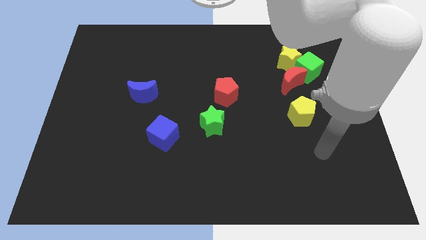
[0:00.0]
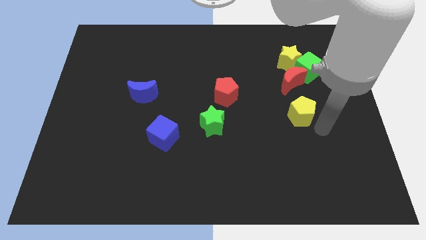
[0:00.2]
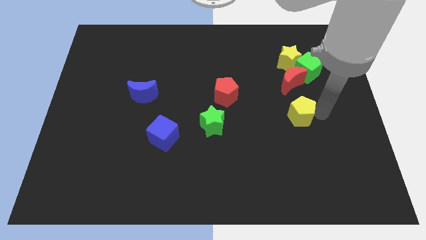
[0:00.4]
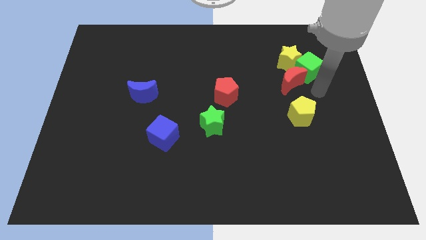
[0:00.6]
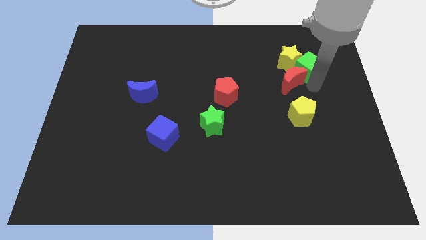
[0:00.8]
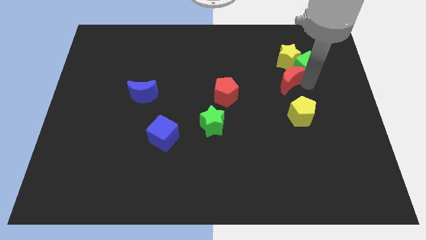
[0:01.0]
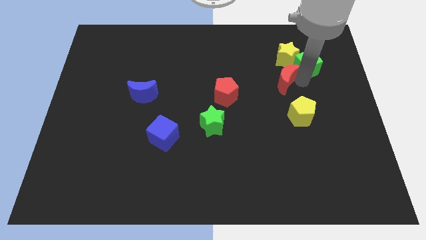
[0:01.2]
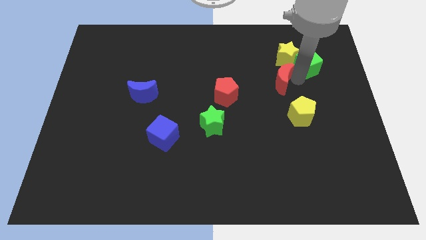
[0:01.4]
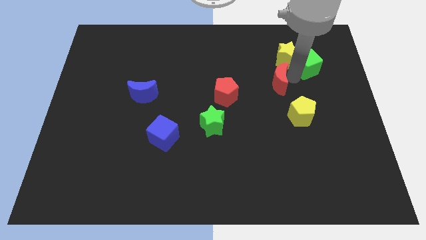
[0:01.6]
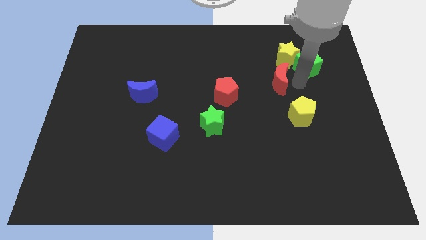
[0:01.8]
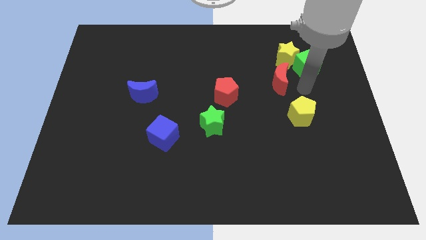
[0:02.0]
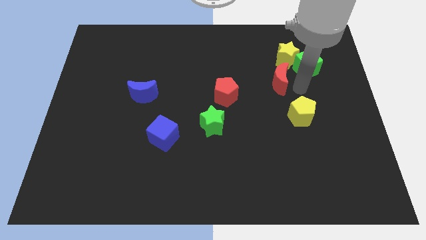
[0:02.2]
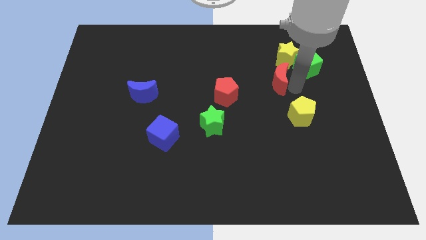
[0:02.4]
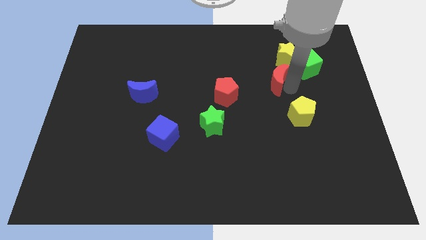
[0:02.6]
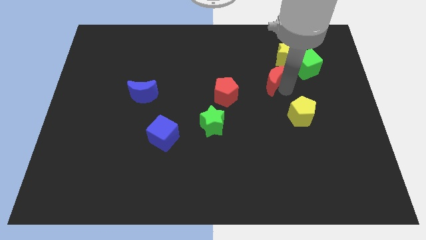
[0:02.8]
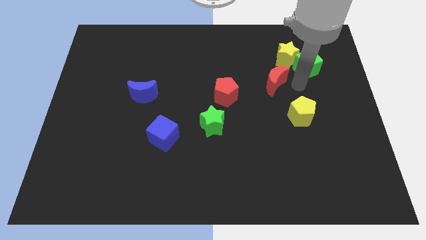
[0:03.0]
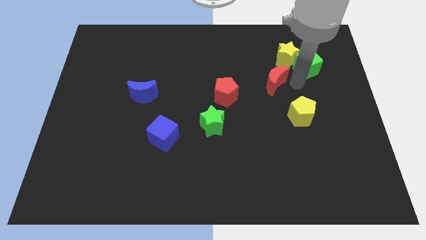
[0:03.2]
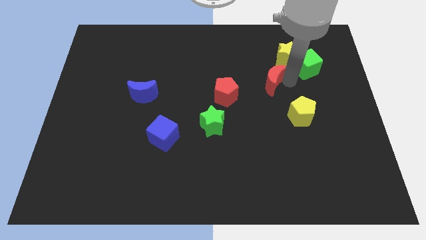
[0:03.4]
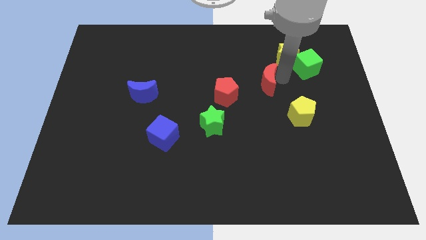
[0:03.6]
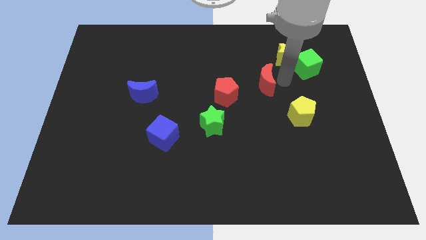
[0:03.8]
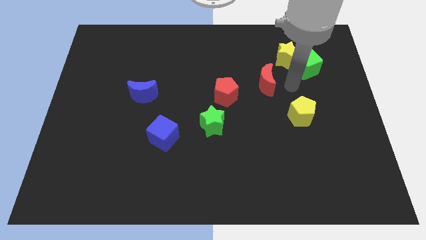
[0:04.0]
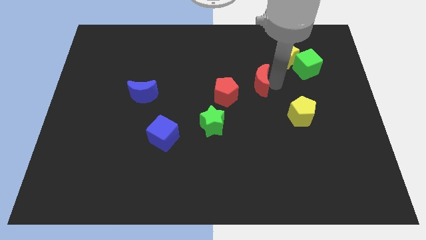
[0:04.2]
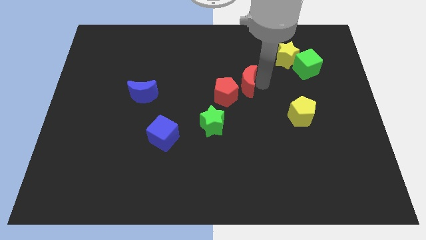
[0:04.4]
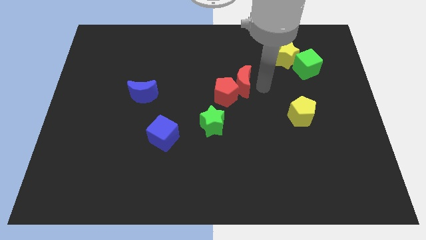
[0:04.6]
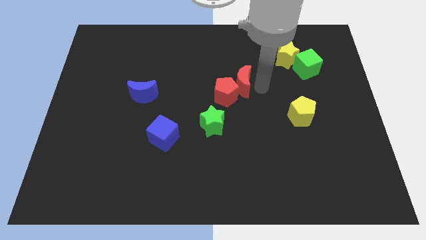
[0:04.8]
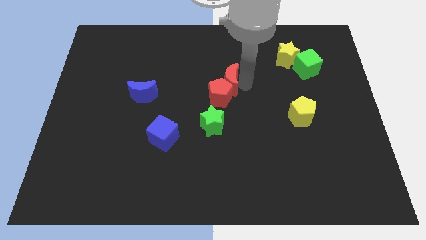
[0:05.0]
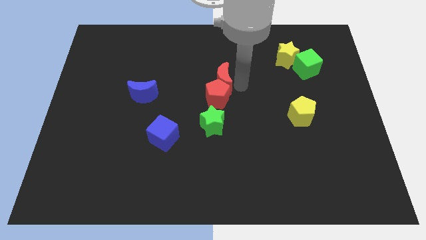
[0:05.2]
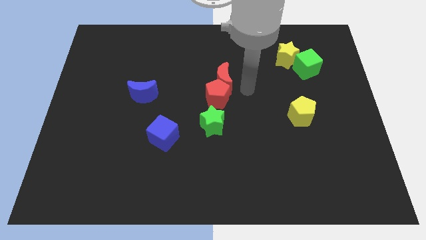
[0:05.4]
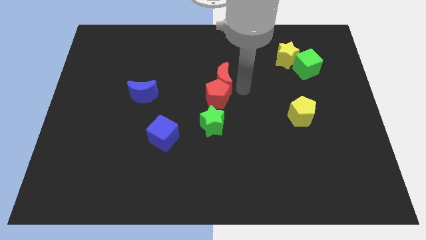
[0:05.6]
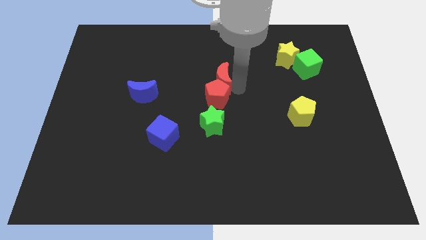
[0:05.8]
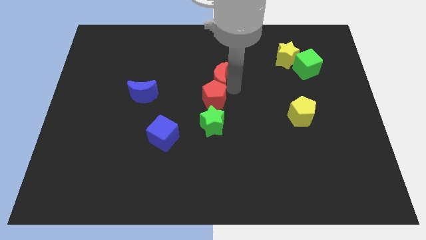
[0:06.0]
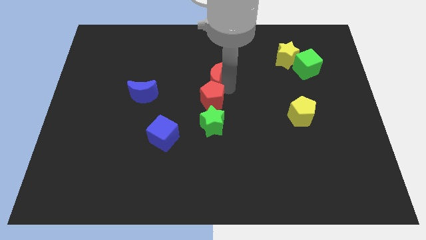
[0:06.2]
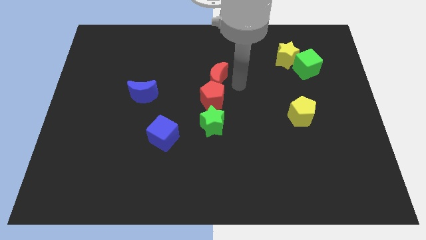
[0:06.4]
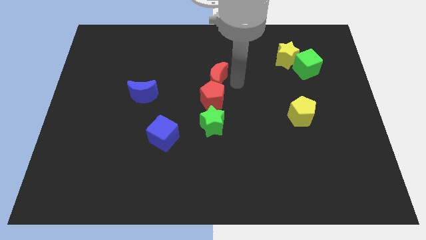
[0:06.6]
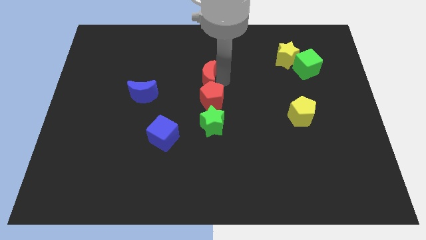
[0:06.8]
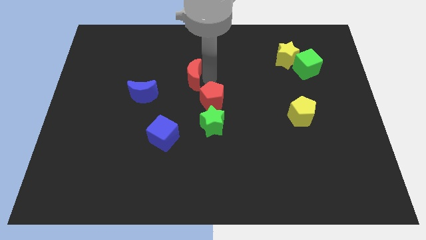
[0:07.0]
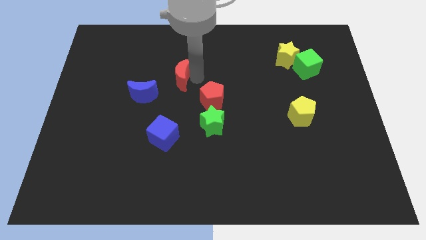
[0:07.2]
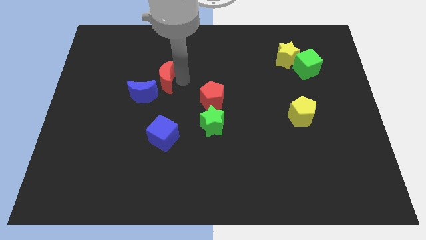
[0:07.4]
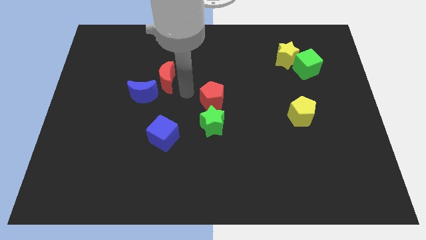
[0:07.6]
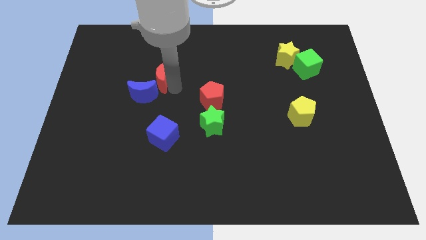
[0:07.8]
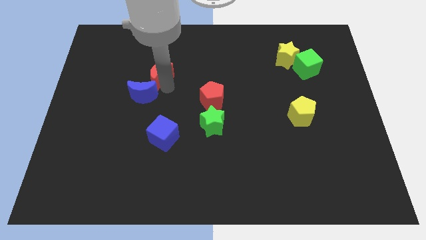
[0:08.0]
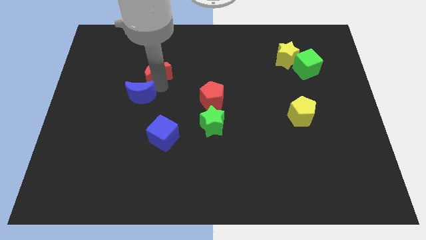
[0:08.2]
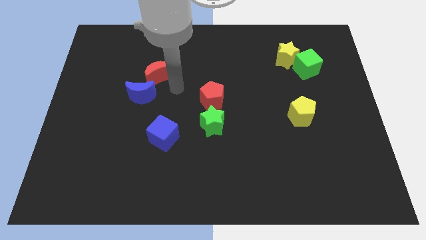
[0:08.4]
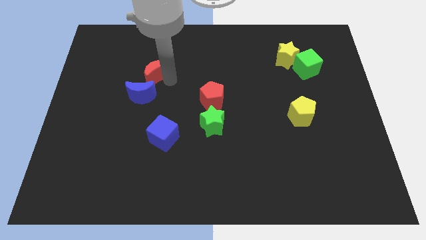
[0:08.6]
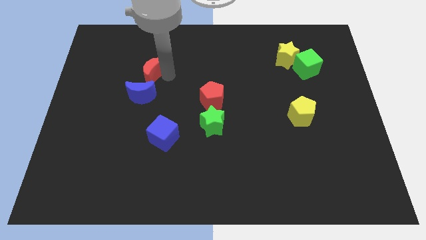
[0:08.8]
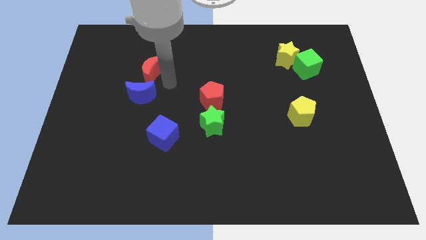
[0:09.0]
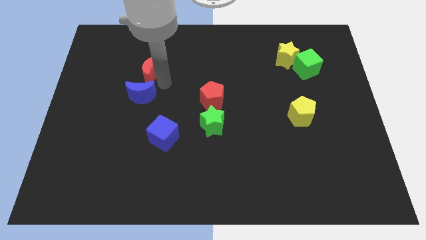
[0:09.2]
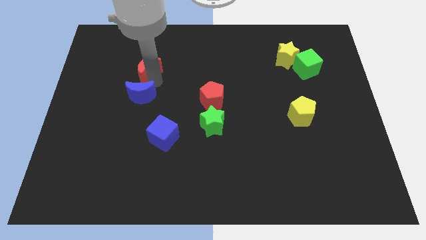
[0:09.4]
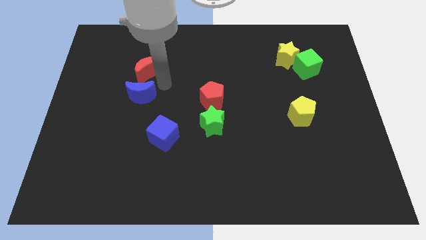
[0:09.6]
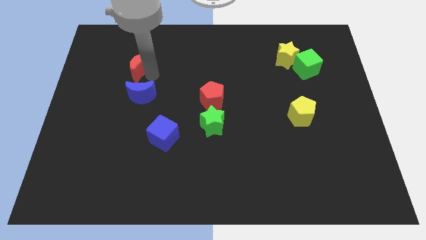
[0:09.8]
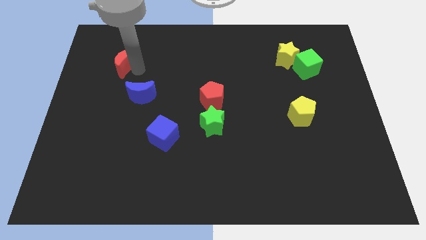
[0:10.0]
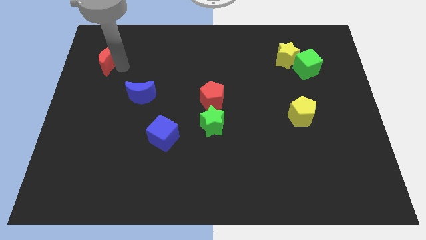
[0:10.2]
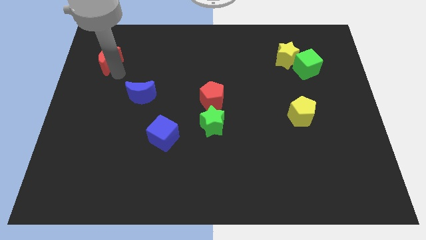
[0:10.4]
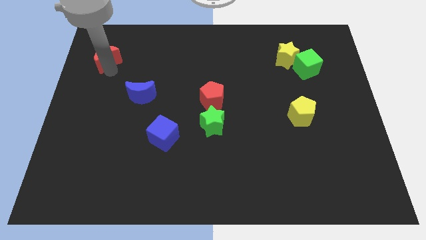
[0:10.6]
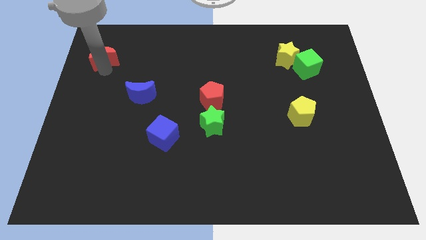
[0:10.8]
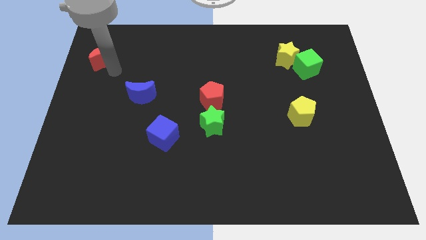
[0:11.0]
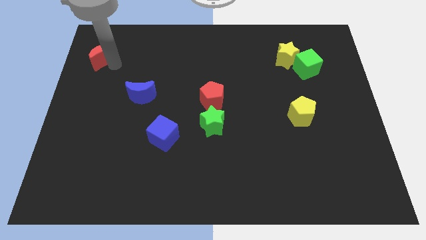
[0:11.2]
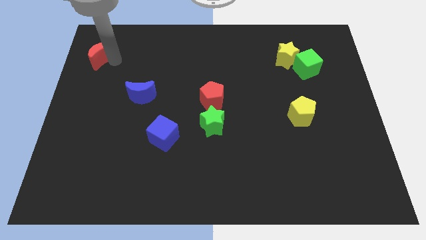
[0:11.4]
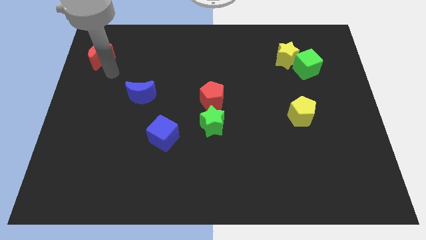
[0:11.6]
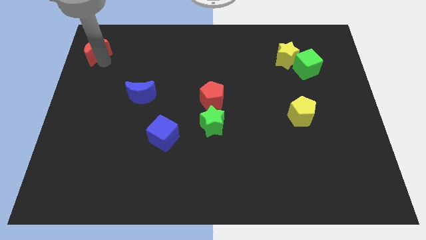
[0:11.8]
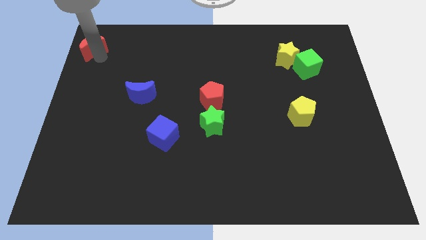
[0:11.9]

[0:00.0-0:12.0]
slide the red moon to the top left corner
